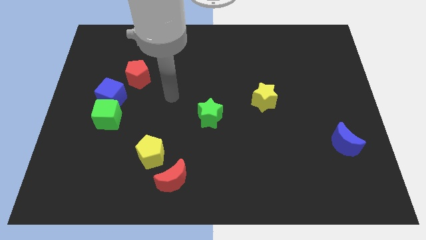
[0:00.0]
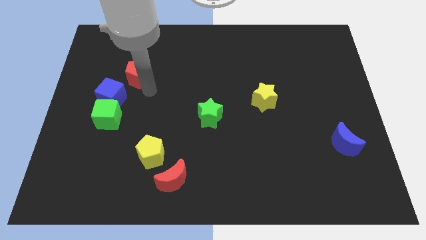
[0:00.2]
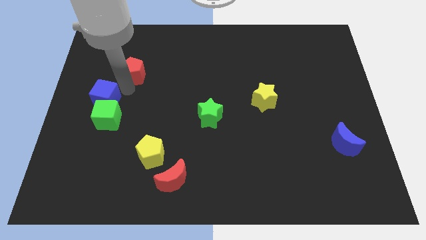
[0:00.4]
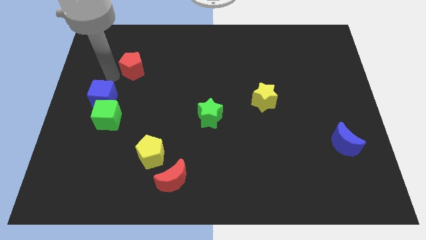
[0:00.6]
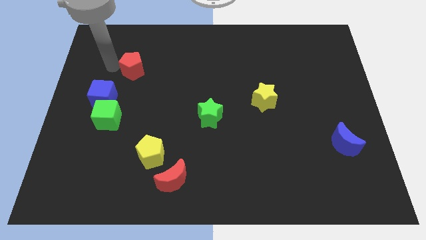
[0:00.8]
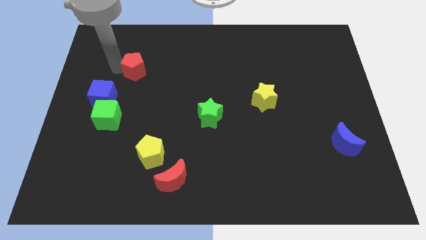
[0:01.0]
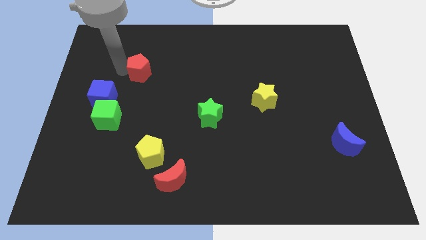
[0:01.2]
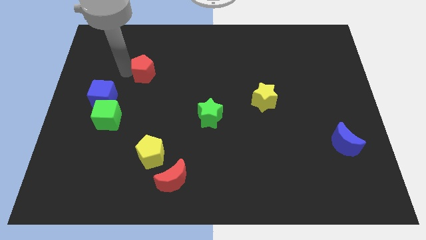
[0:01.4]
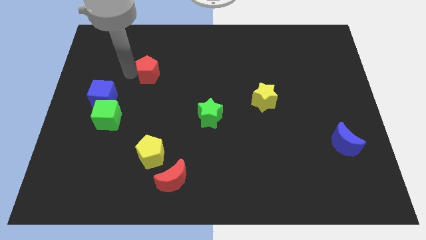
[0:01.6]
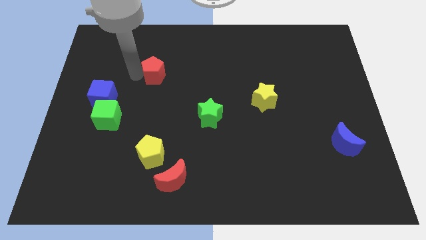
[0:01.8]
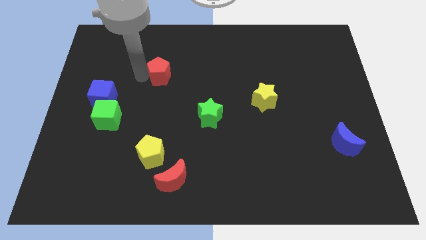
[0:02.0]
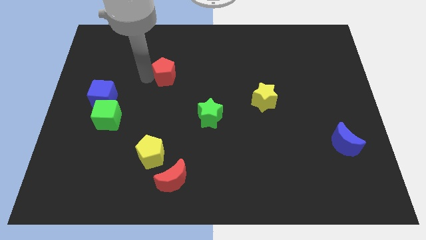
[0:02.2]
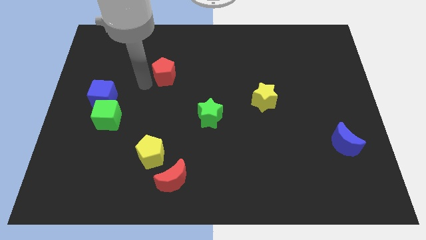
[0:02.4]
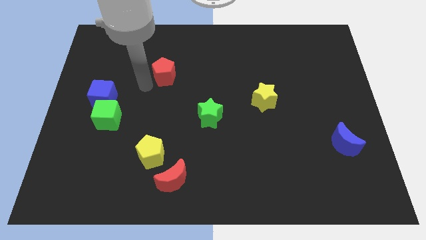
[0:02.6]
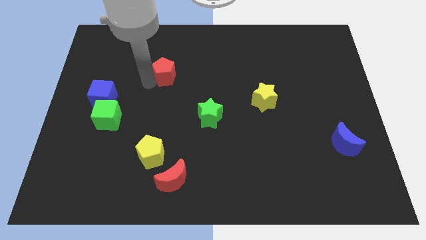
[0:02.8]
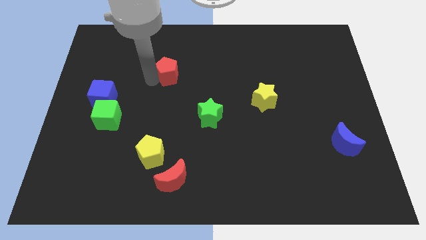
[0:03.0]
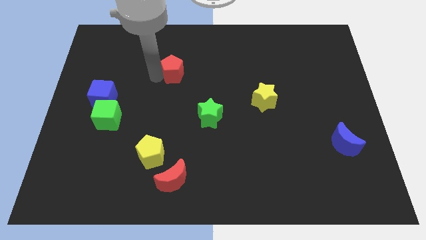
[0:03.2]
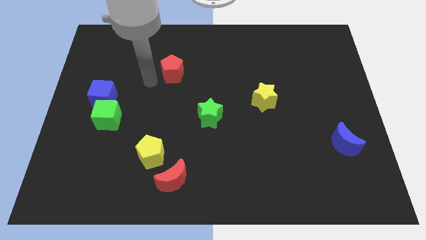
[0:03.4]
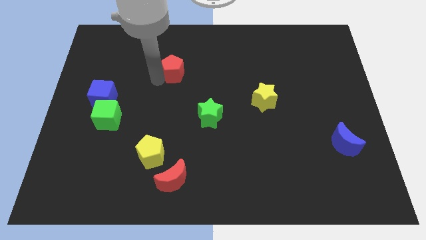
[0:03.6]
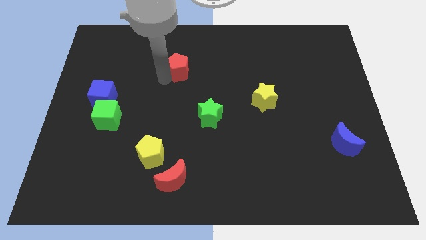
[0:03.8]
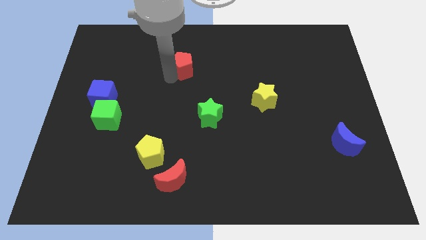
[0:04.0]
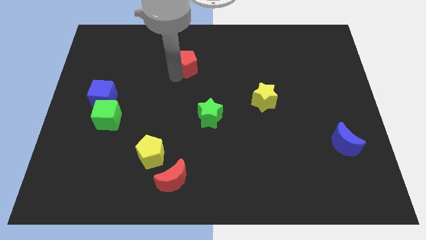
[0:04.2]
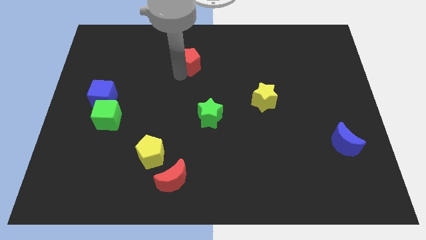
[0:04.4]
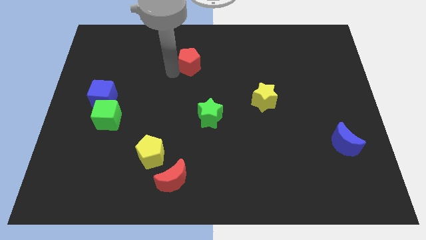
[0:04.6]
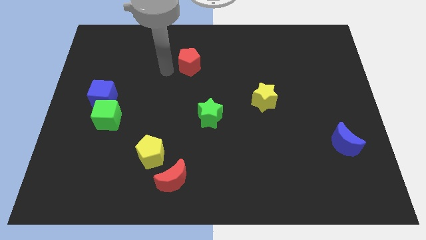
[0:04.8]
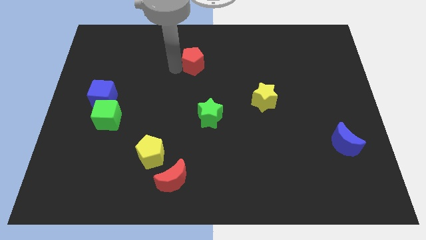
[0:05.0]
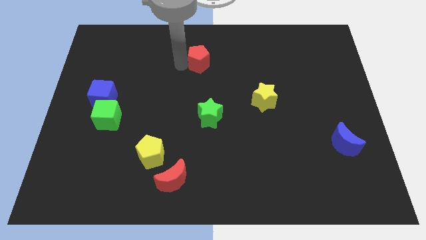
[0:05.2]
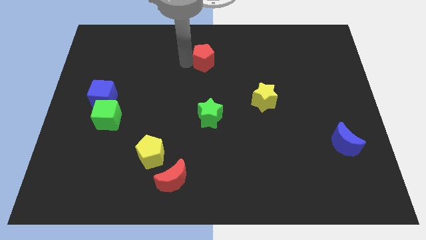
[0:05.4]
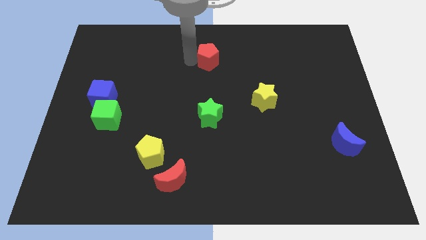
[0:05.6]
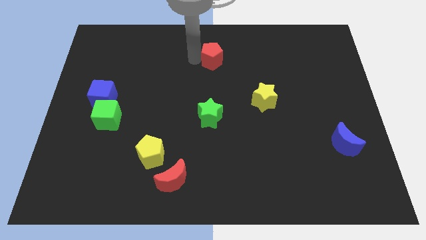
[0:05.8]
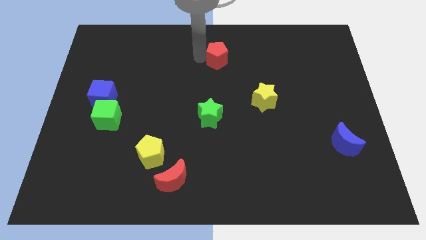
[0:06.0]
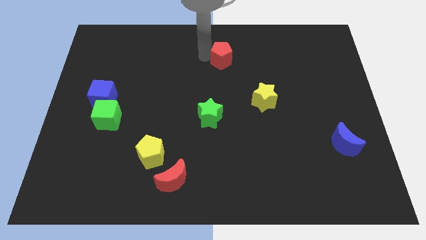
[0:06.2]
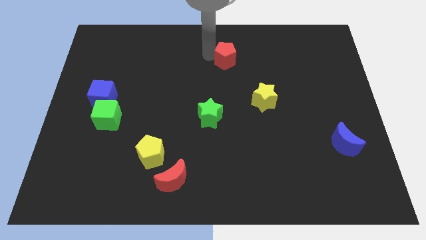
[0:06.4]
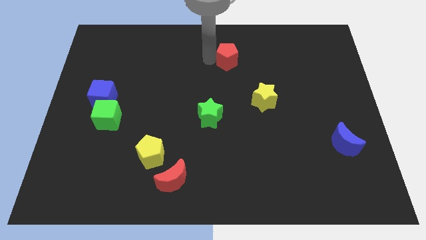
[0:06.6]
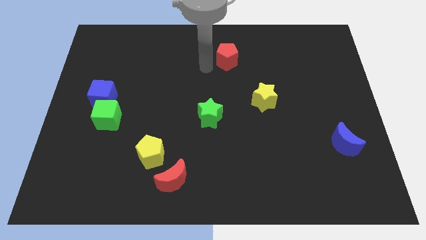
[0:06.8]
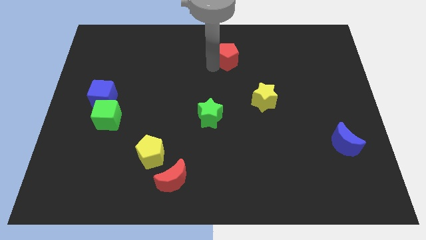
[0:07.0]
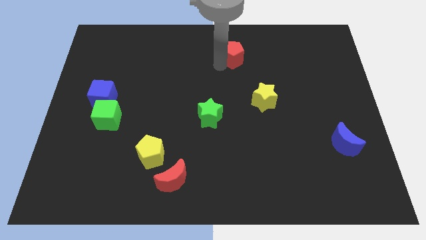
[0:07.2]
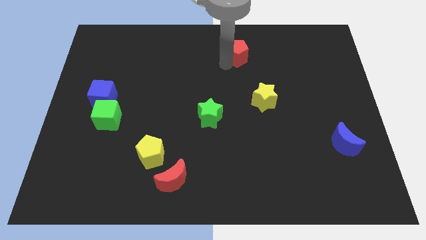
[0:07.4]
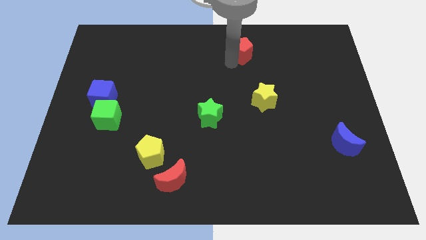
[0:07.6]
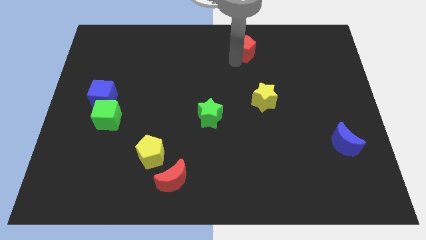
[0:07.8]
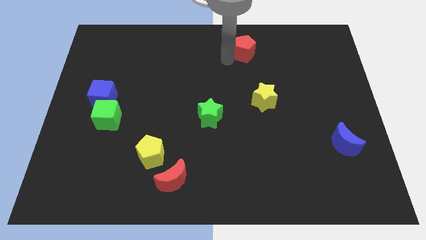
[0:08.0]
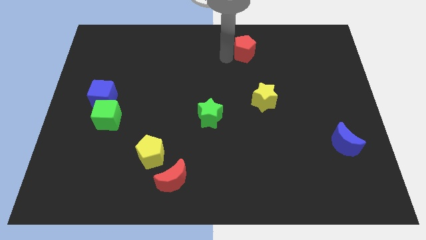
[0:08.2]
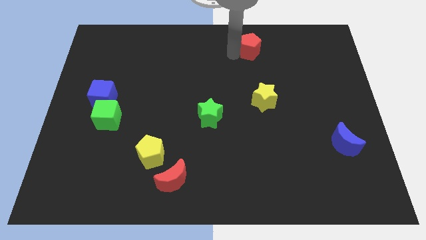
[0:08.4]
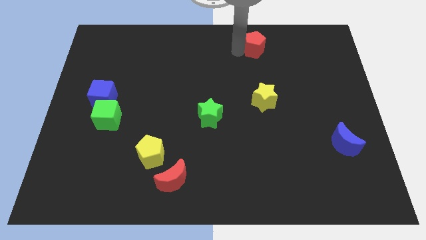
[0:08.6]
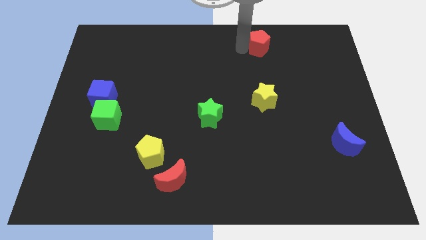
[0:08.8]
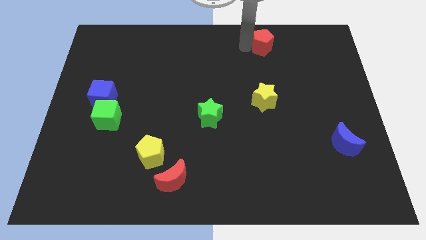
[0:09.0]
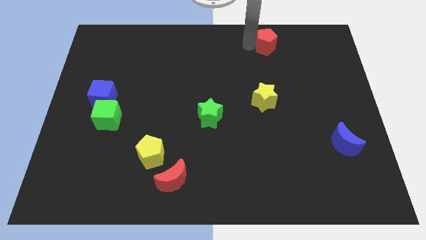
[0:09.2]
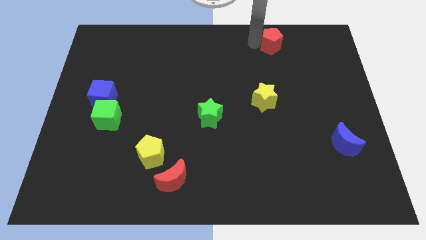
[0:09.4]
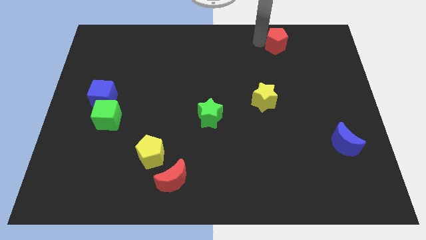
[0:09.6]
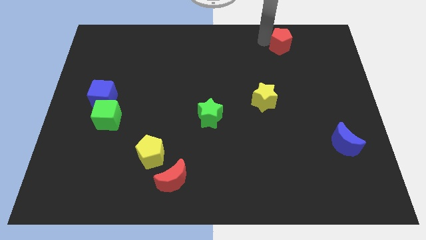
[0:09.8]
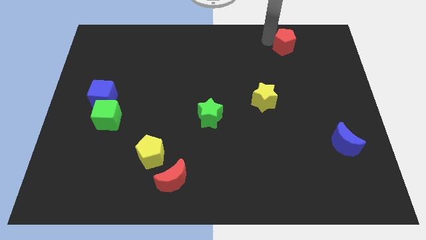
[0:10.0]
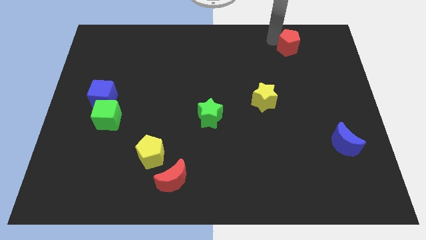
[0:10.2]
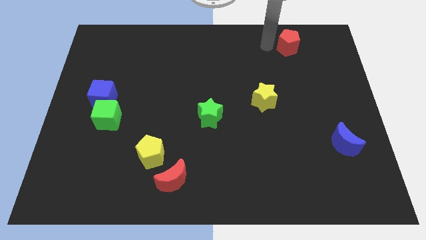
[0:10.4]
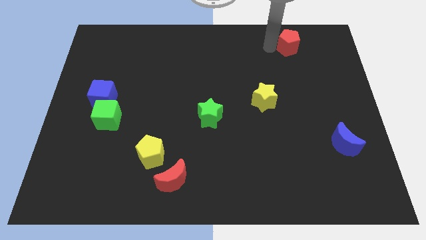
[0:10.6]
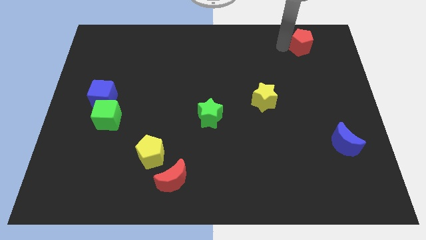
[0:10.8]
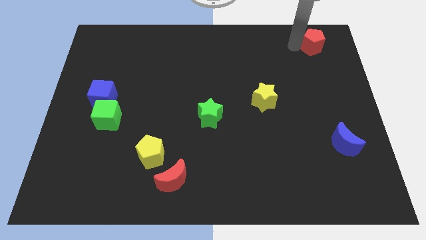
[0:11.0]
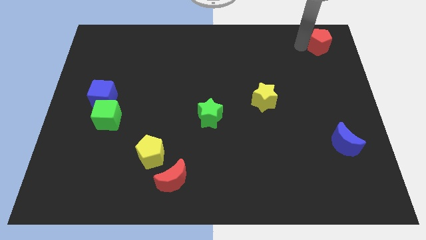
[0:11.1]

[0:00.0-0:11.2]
move the red pentagon to the top right

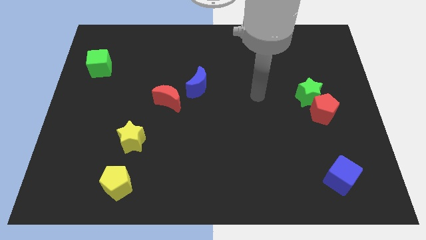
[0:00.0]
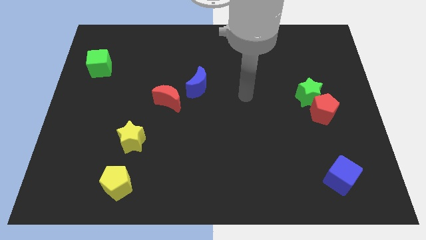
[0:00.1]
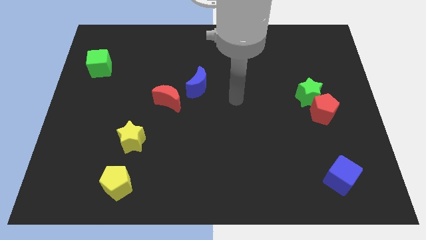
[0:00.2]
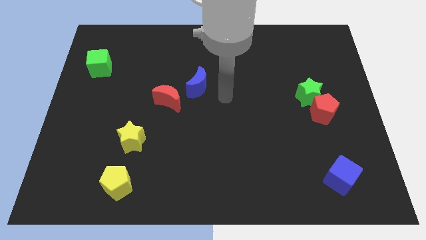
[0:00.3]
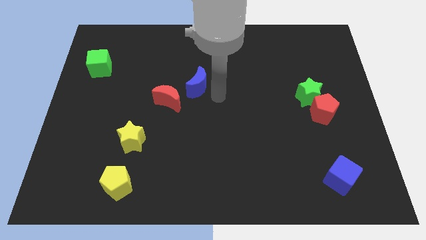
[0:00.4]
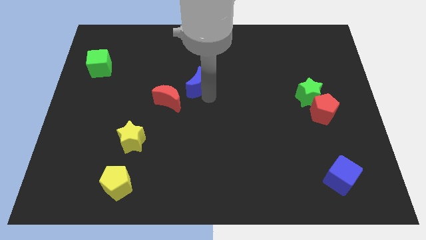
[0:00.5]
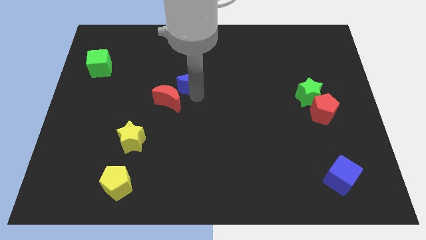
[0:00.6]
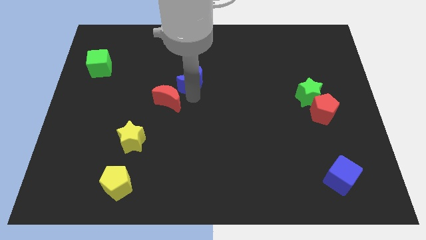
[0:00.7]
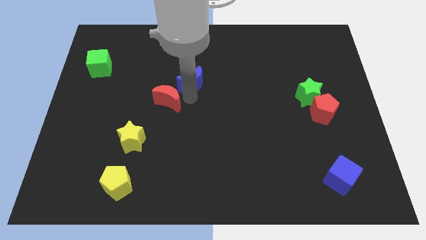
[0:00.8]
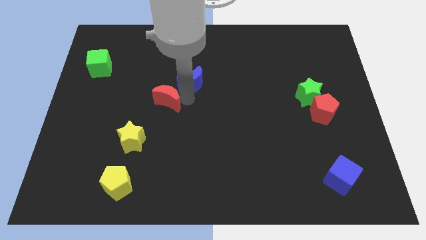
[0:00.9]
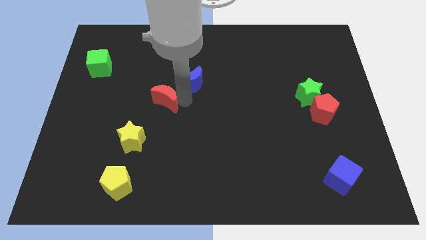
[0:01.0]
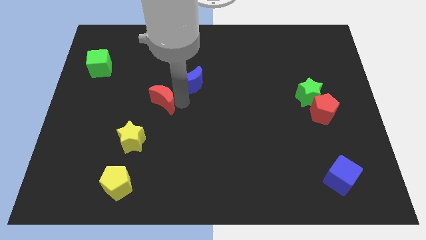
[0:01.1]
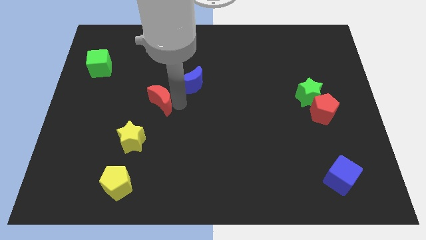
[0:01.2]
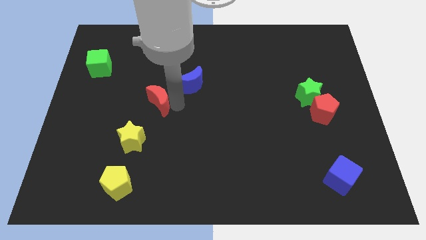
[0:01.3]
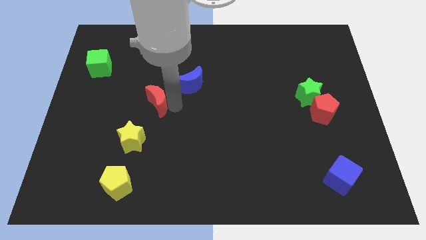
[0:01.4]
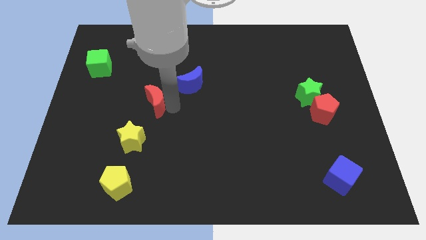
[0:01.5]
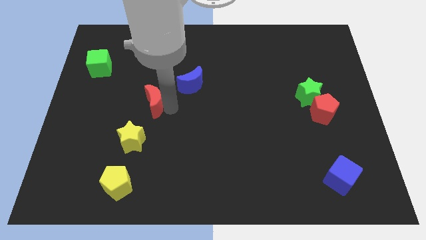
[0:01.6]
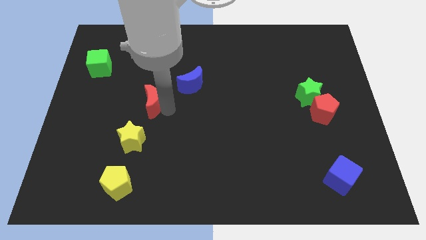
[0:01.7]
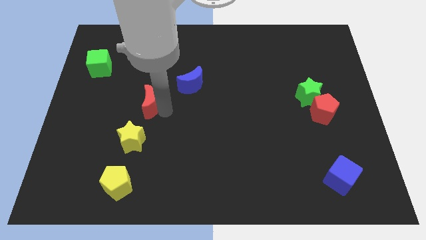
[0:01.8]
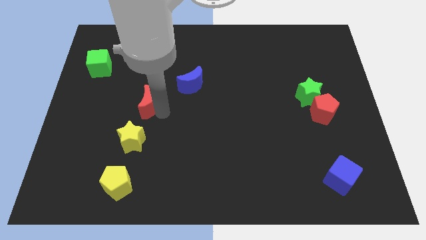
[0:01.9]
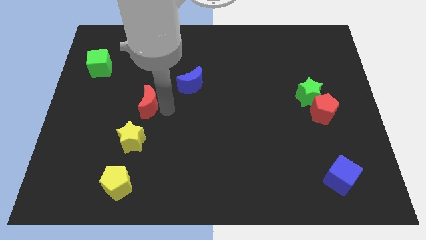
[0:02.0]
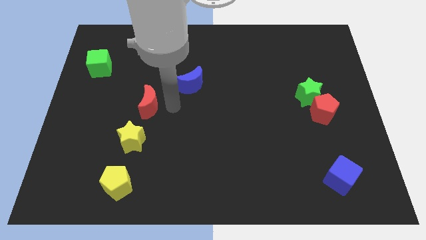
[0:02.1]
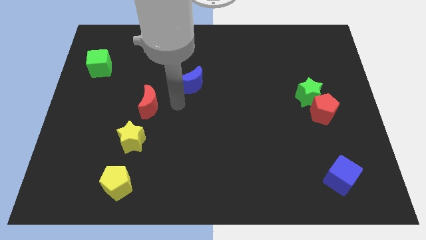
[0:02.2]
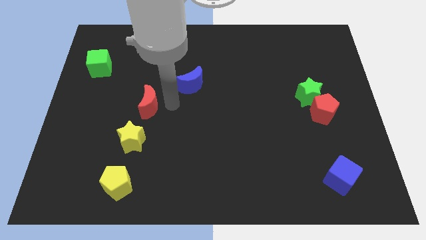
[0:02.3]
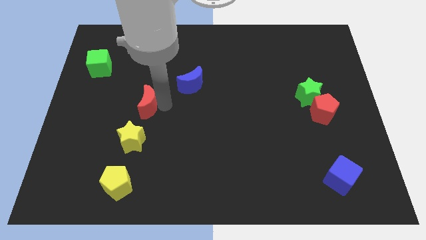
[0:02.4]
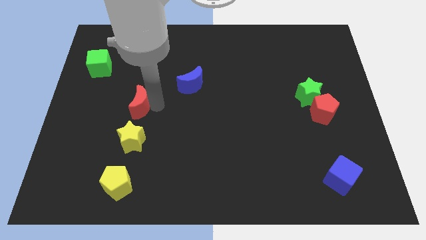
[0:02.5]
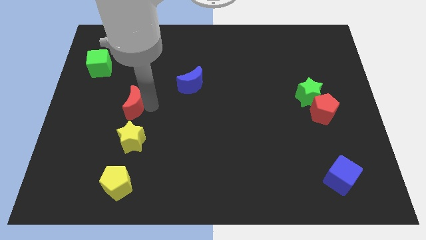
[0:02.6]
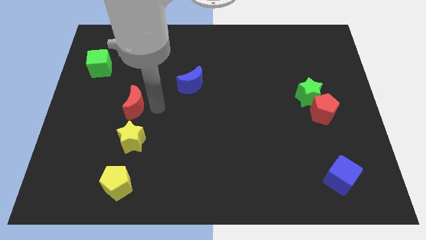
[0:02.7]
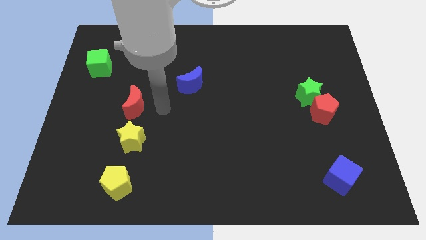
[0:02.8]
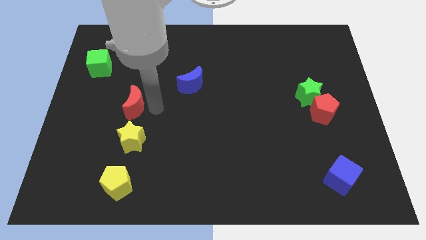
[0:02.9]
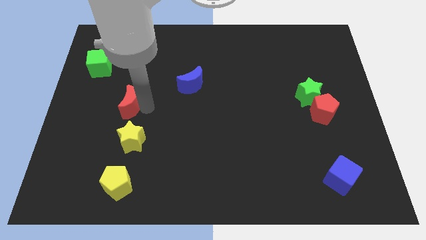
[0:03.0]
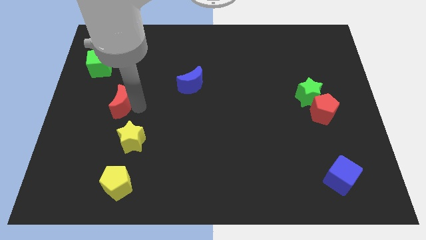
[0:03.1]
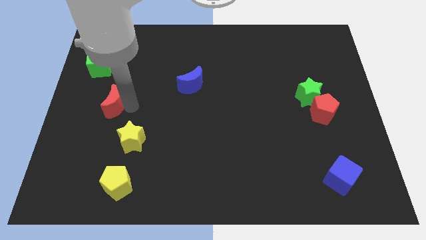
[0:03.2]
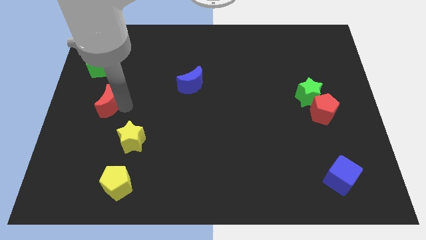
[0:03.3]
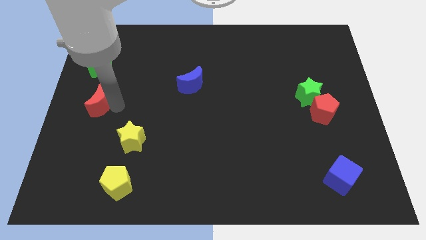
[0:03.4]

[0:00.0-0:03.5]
move the red moon to the left side of the board
